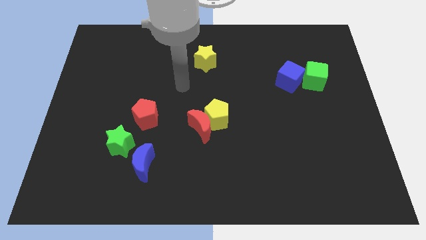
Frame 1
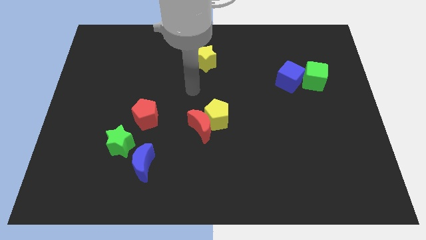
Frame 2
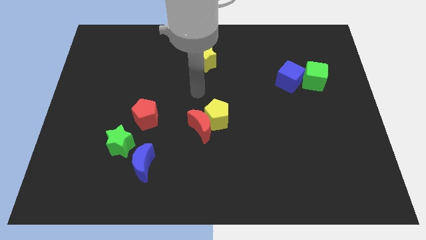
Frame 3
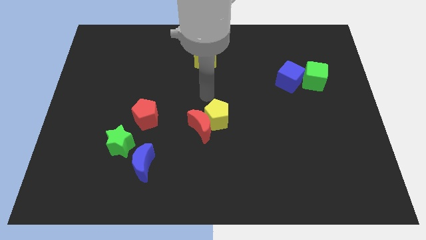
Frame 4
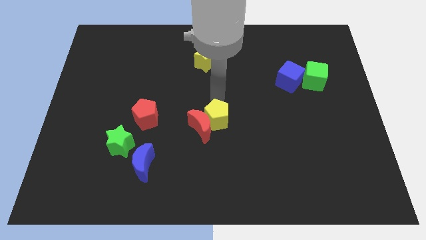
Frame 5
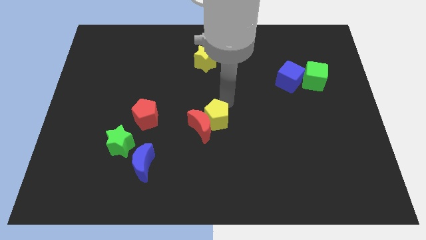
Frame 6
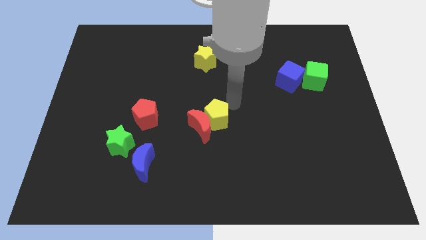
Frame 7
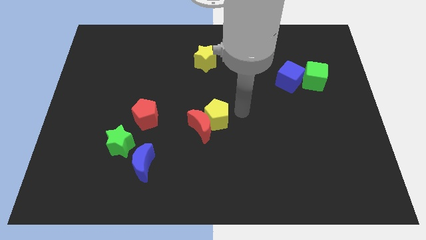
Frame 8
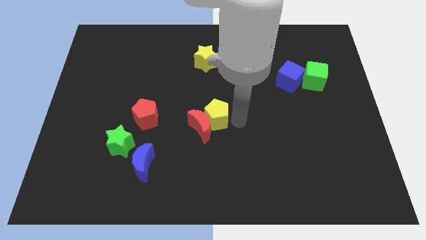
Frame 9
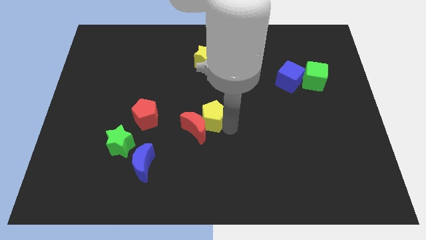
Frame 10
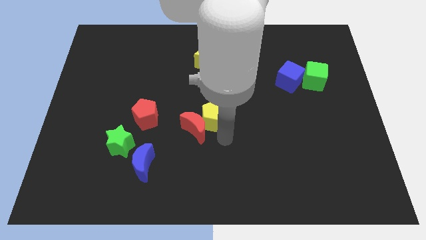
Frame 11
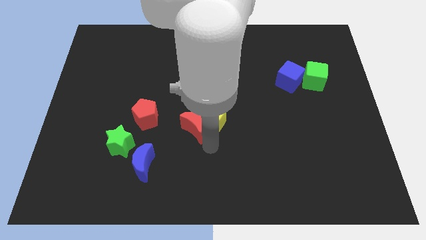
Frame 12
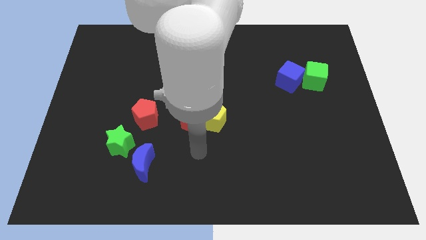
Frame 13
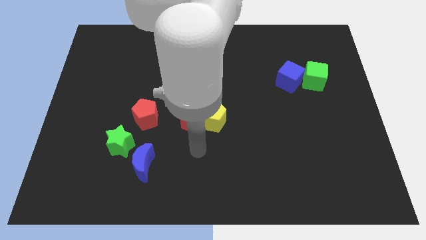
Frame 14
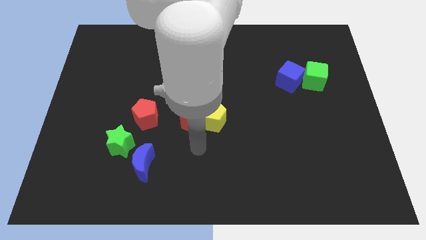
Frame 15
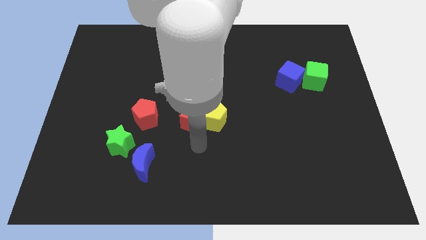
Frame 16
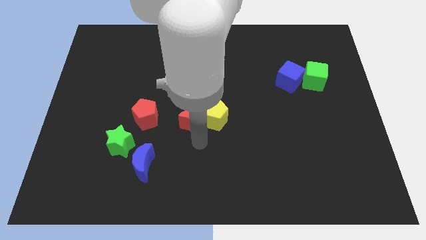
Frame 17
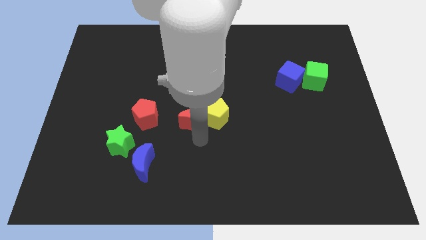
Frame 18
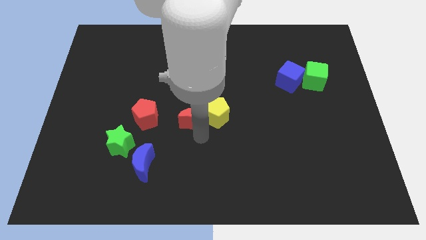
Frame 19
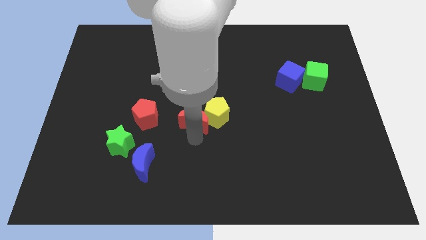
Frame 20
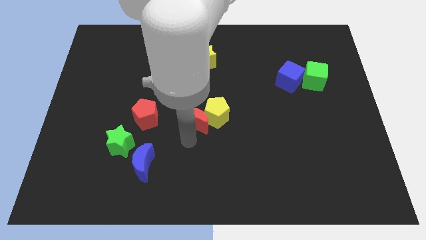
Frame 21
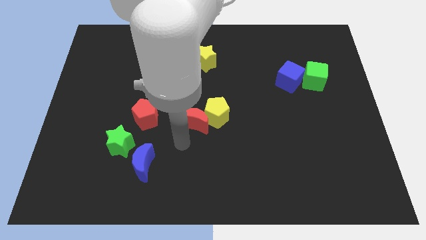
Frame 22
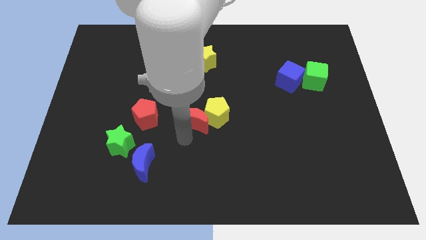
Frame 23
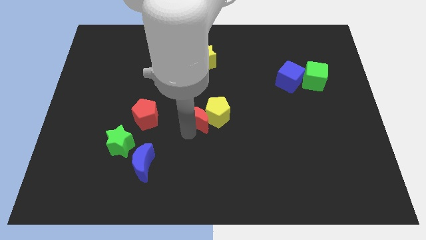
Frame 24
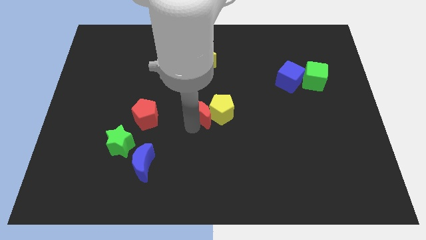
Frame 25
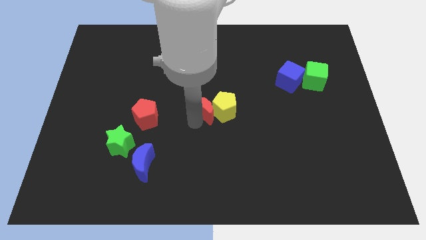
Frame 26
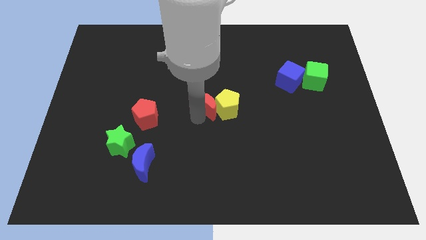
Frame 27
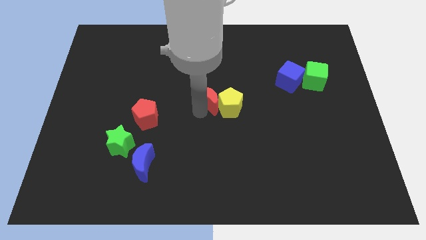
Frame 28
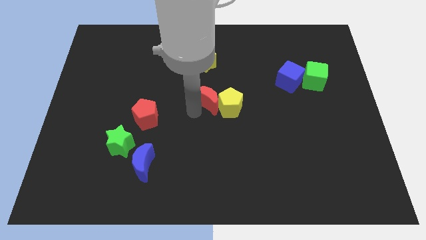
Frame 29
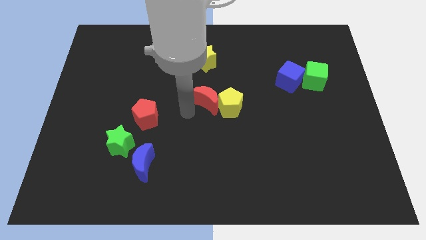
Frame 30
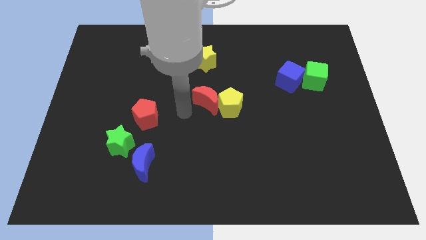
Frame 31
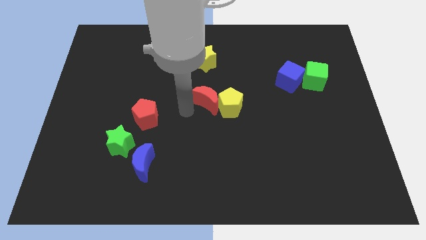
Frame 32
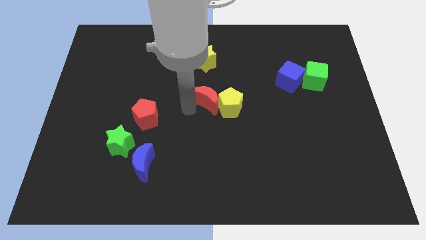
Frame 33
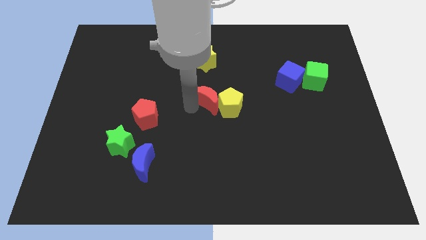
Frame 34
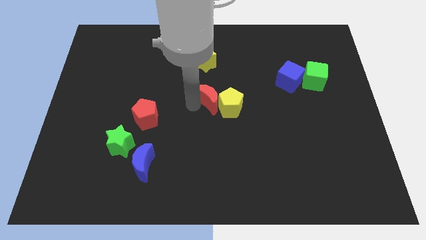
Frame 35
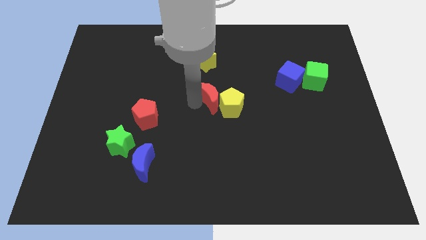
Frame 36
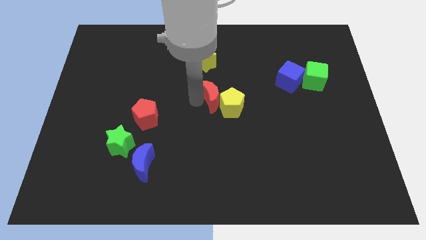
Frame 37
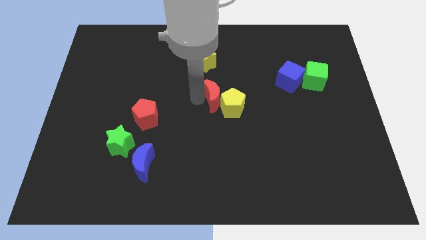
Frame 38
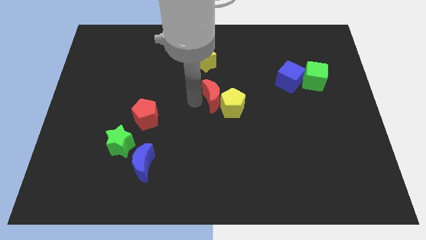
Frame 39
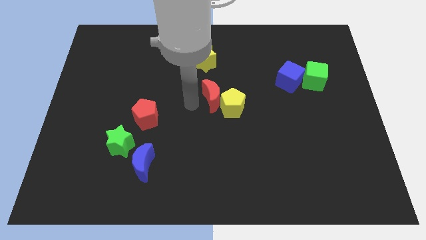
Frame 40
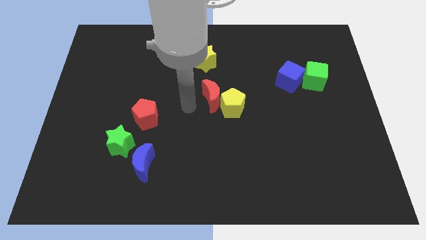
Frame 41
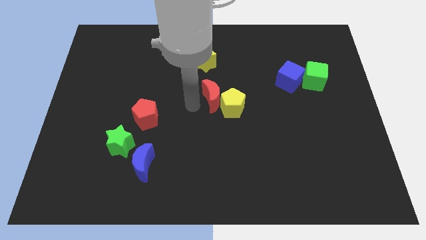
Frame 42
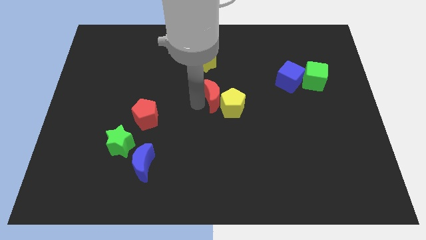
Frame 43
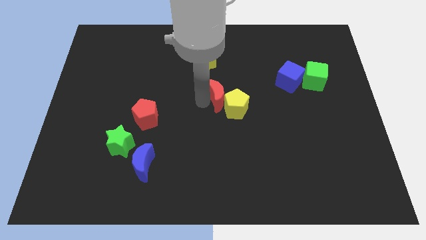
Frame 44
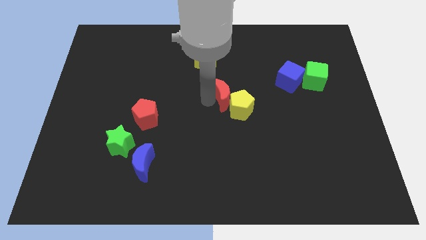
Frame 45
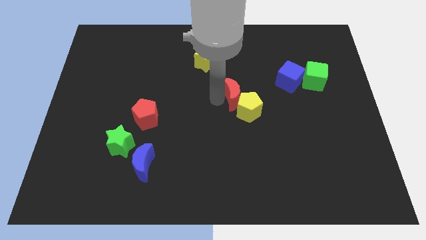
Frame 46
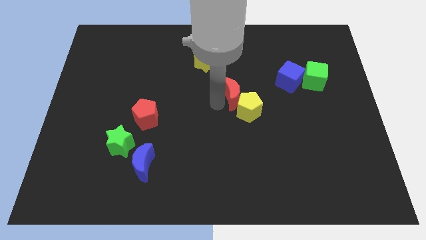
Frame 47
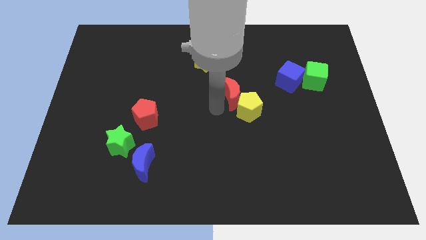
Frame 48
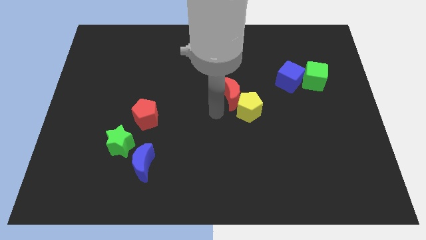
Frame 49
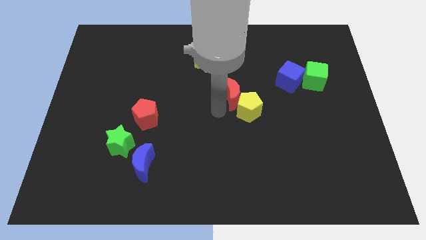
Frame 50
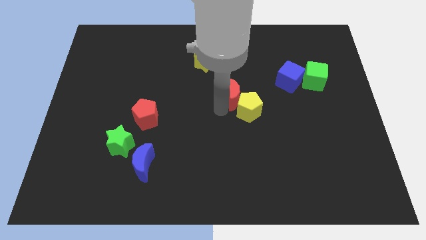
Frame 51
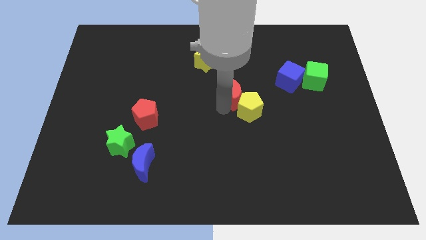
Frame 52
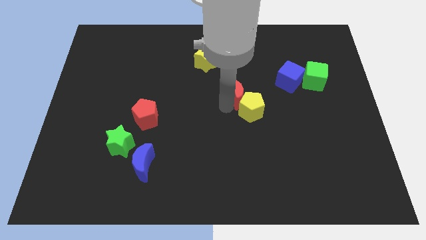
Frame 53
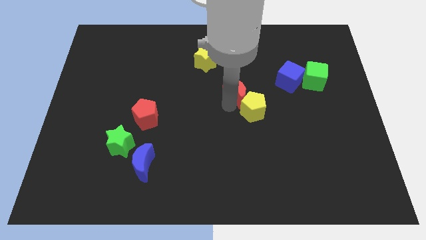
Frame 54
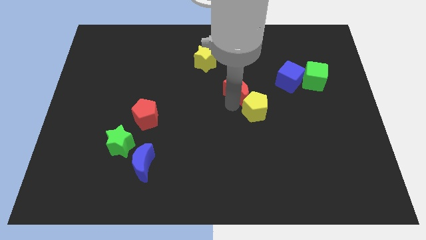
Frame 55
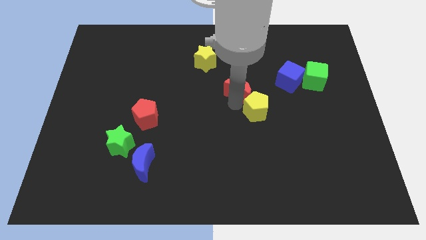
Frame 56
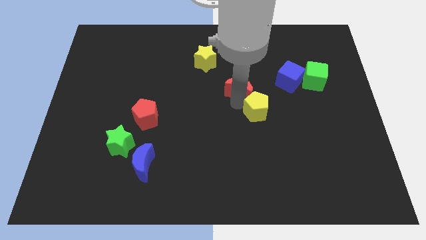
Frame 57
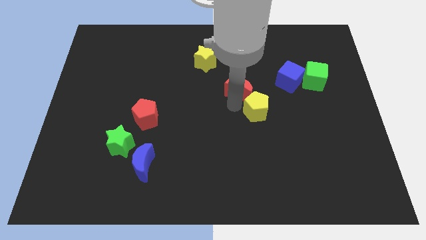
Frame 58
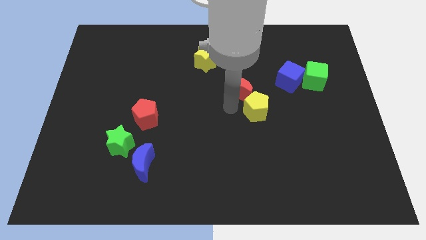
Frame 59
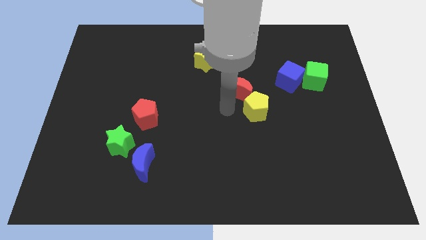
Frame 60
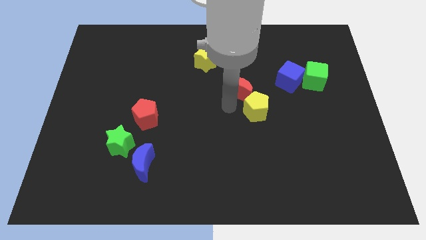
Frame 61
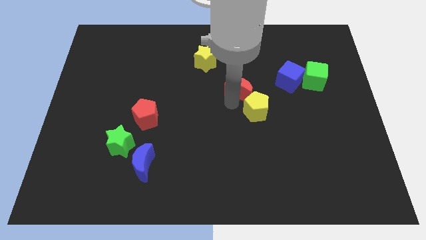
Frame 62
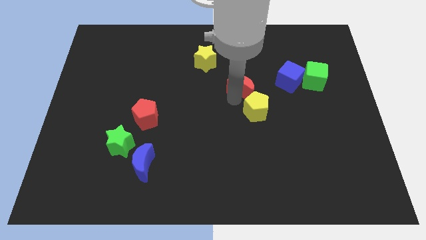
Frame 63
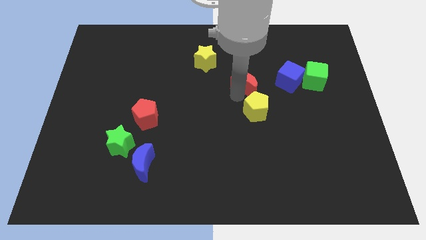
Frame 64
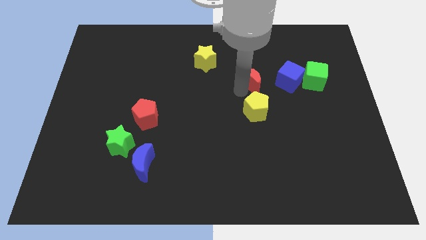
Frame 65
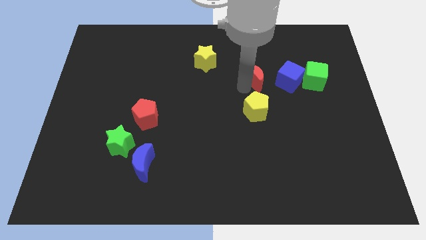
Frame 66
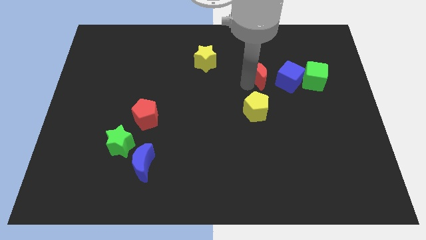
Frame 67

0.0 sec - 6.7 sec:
push the red moon upwards and then right

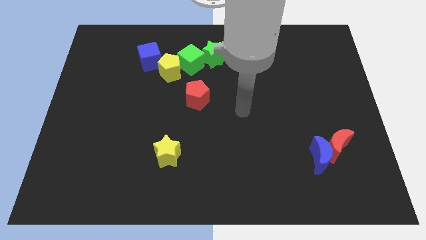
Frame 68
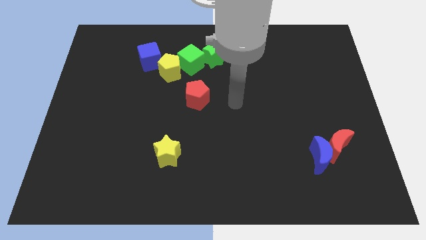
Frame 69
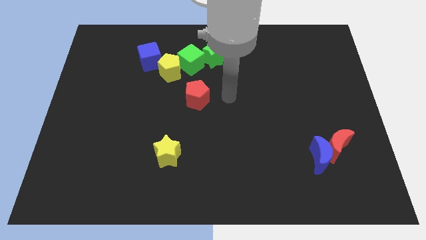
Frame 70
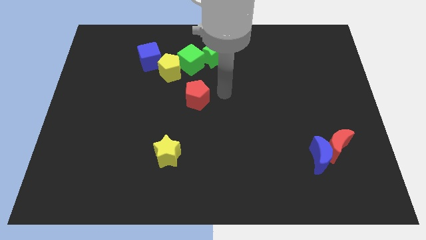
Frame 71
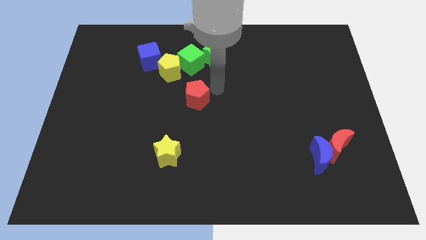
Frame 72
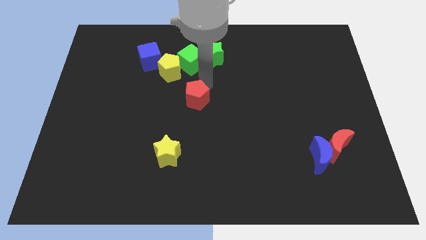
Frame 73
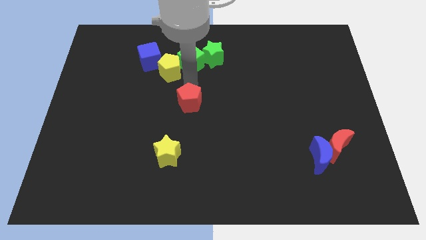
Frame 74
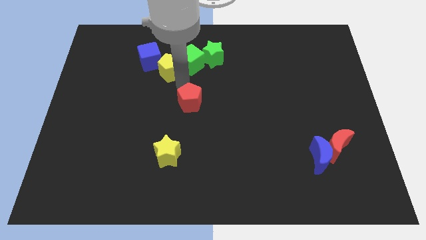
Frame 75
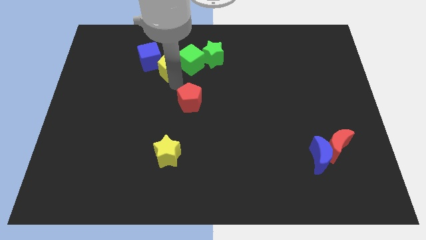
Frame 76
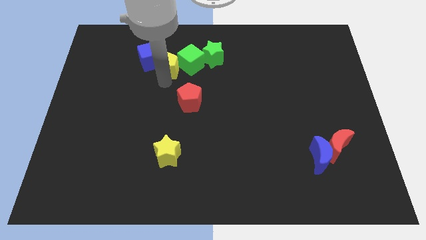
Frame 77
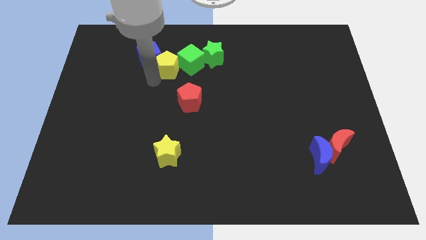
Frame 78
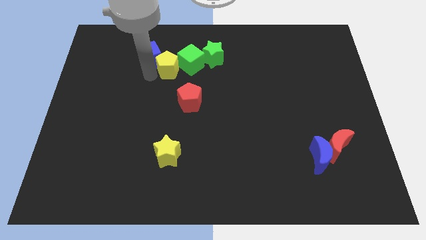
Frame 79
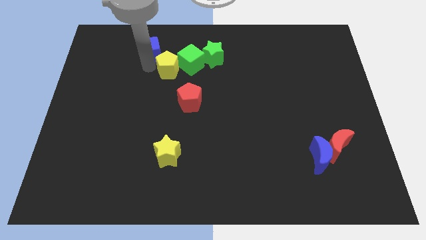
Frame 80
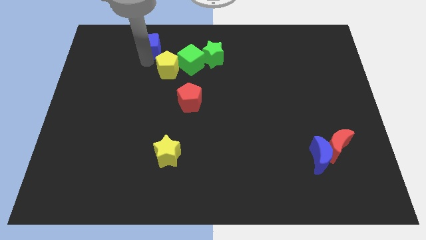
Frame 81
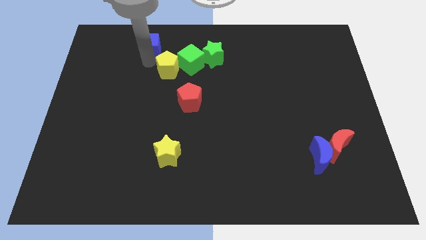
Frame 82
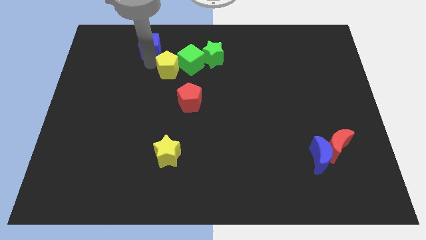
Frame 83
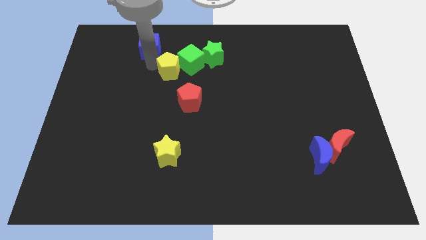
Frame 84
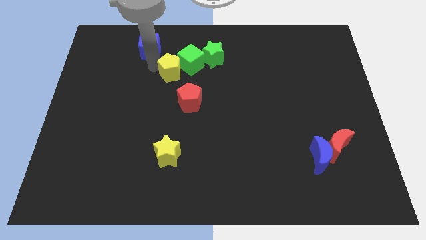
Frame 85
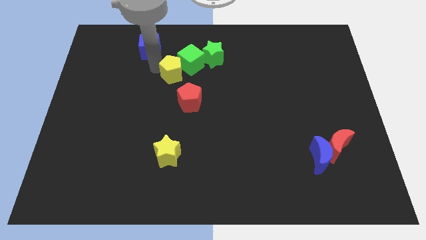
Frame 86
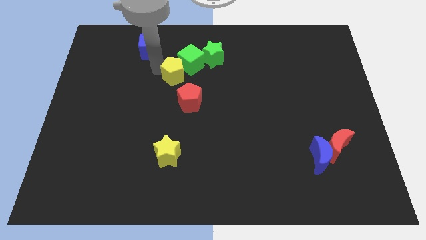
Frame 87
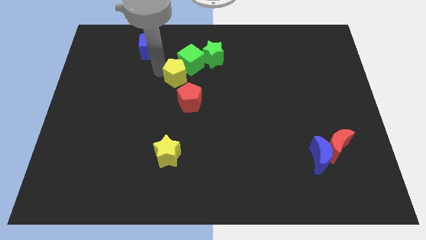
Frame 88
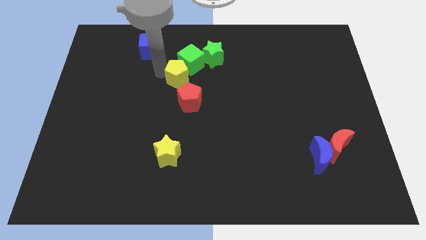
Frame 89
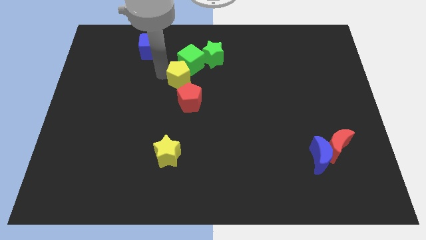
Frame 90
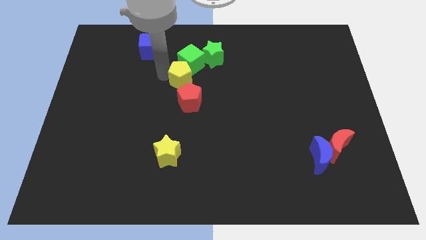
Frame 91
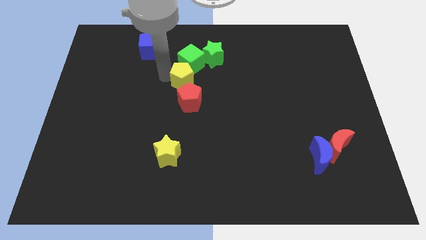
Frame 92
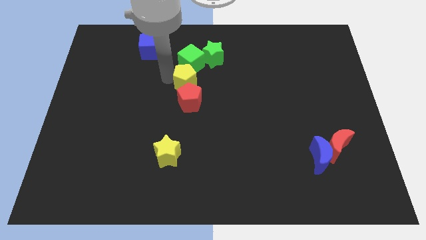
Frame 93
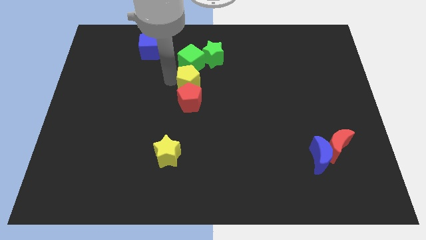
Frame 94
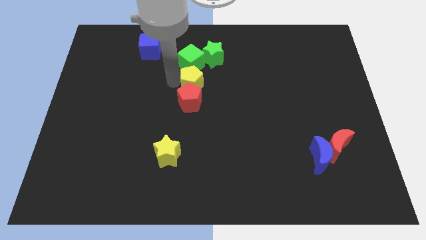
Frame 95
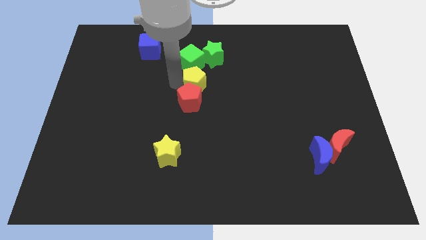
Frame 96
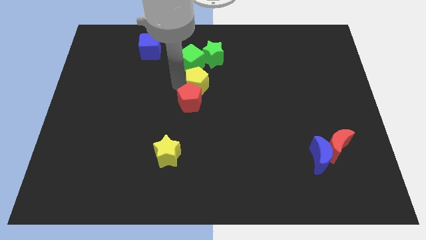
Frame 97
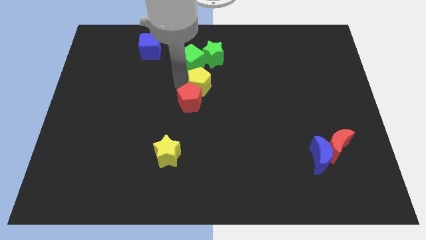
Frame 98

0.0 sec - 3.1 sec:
slightly push the yellow pentagon to the right
